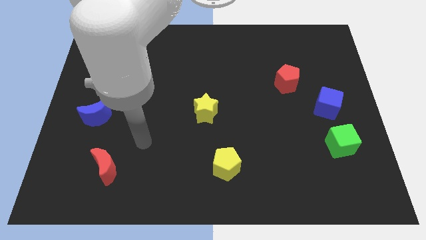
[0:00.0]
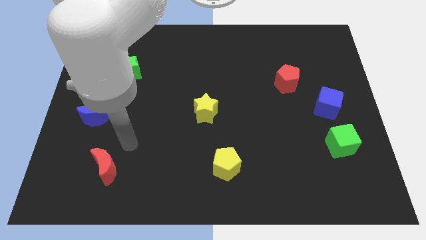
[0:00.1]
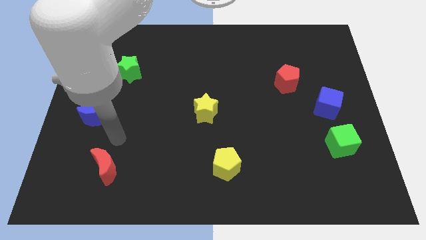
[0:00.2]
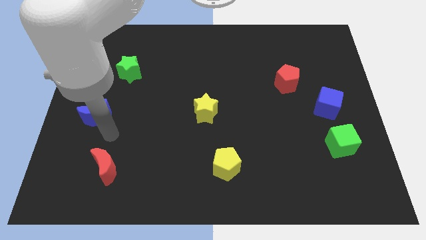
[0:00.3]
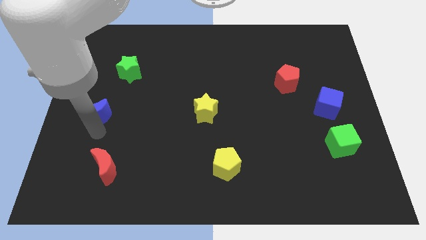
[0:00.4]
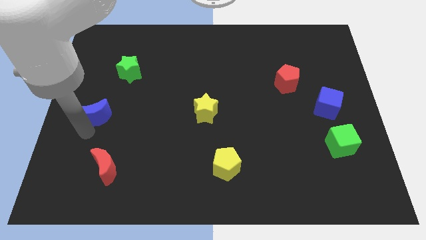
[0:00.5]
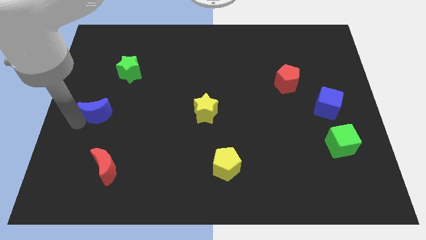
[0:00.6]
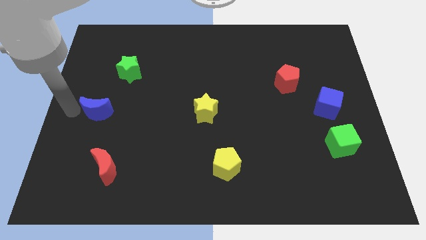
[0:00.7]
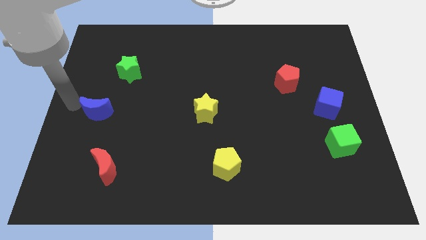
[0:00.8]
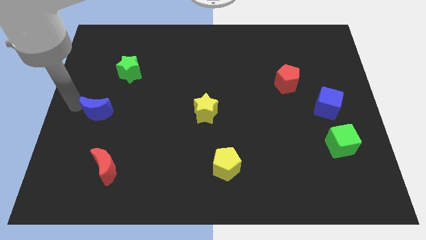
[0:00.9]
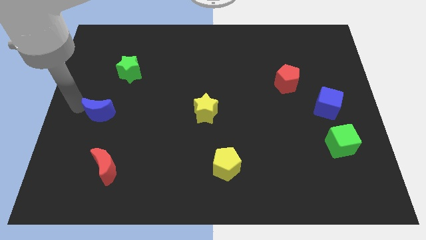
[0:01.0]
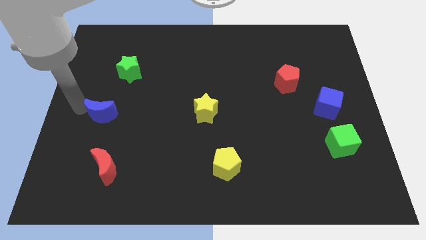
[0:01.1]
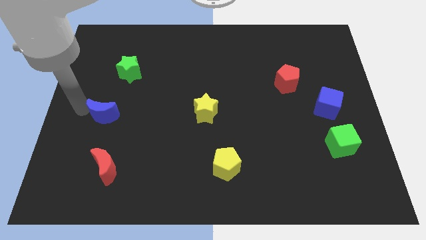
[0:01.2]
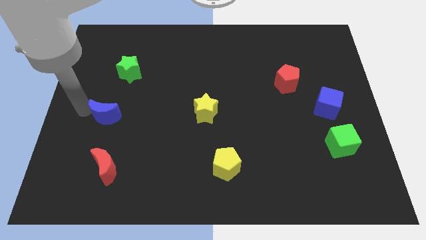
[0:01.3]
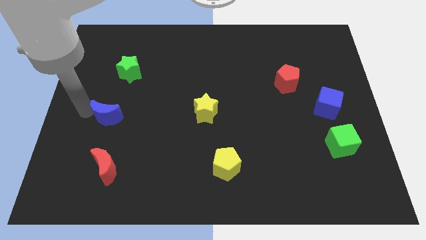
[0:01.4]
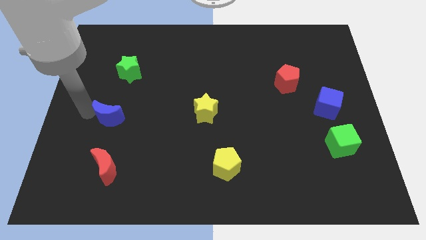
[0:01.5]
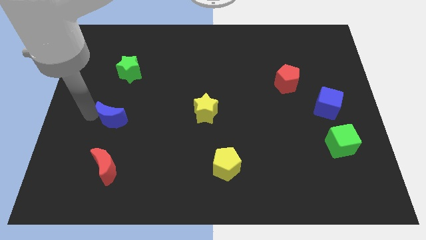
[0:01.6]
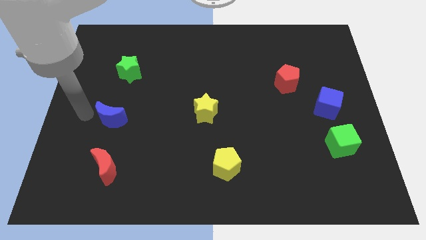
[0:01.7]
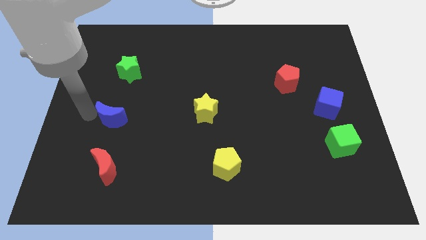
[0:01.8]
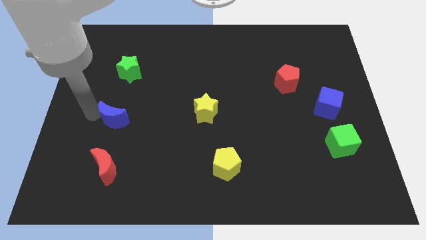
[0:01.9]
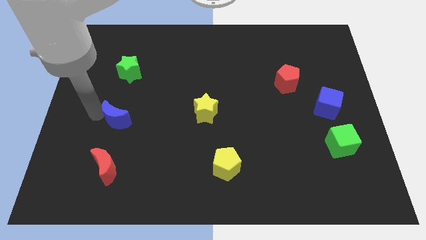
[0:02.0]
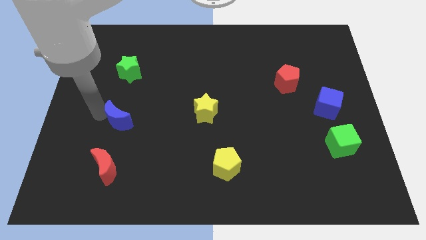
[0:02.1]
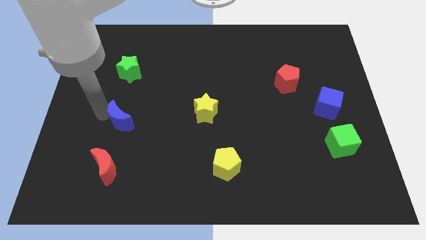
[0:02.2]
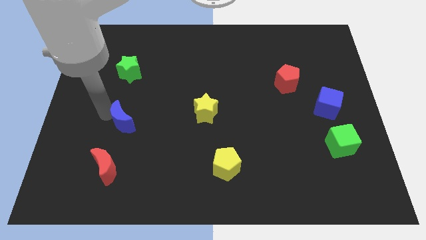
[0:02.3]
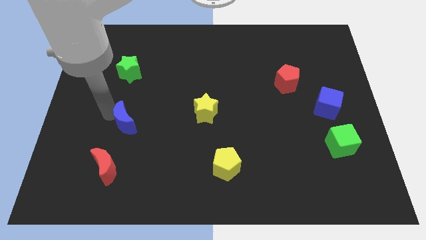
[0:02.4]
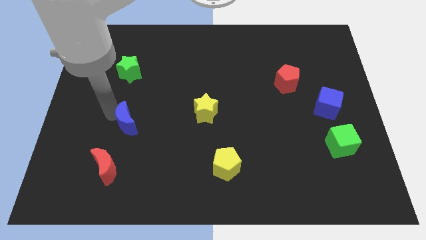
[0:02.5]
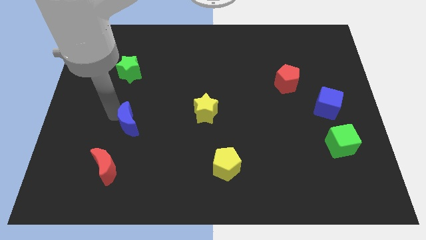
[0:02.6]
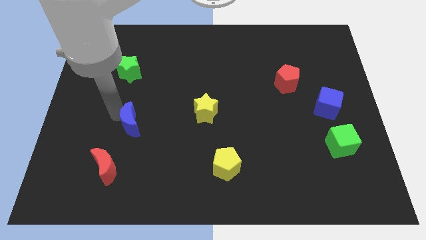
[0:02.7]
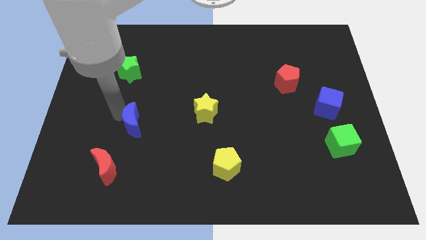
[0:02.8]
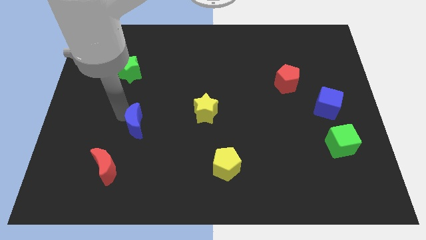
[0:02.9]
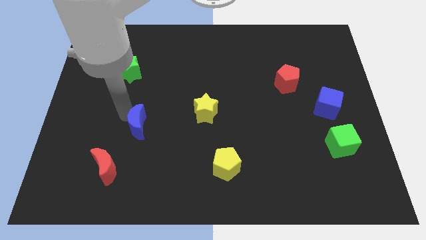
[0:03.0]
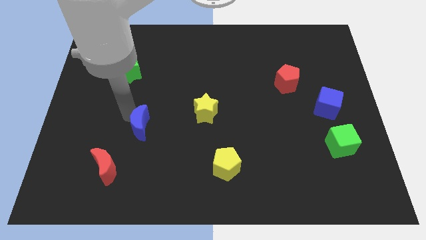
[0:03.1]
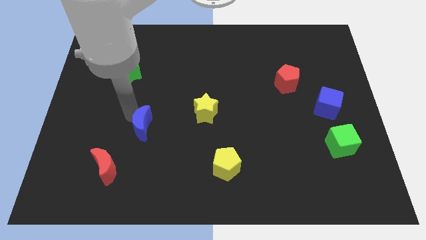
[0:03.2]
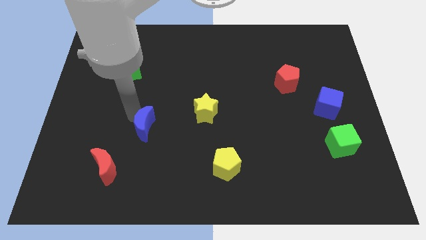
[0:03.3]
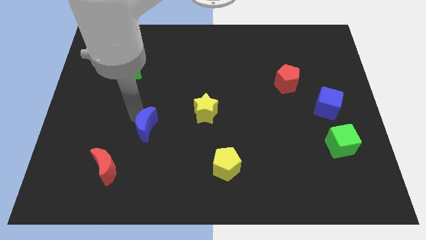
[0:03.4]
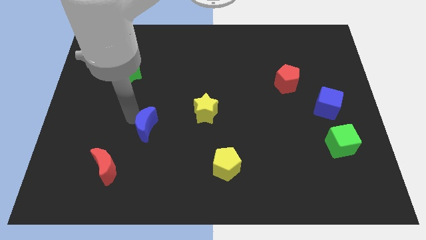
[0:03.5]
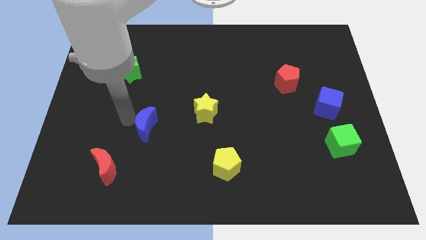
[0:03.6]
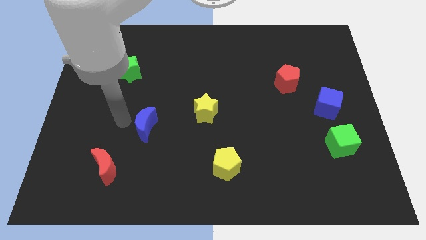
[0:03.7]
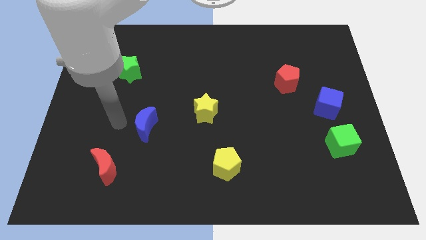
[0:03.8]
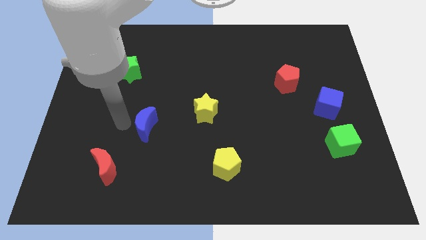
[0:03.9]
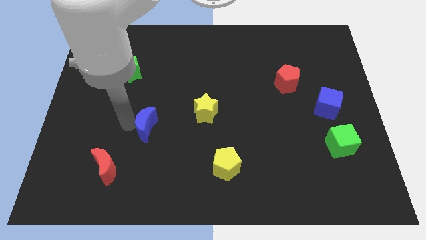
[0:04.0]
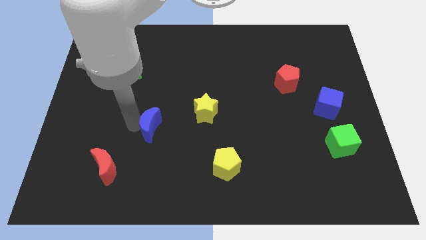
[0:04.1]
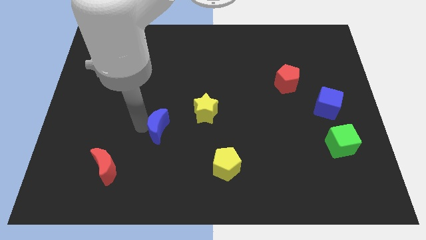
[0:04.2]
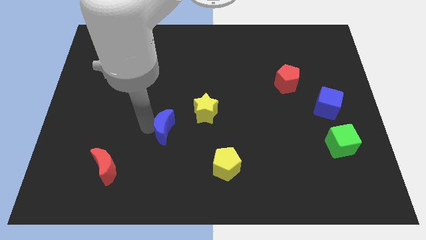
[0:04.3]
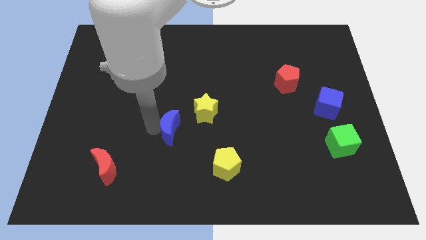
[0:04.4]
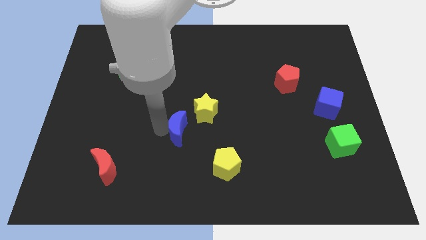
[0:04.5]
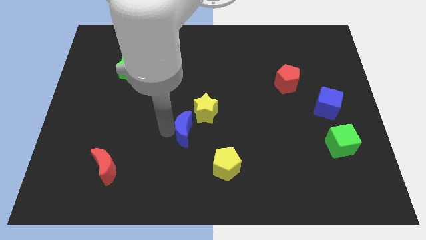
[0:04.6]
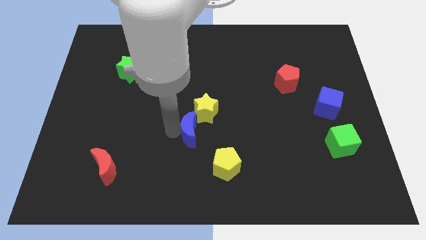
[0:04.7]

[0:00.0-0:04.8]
push the blue moon to the right

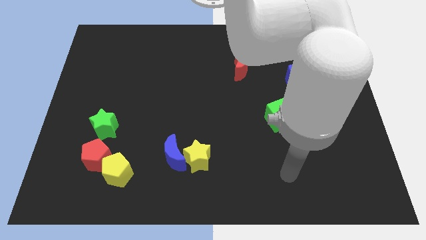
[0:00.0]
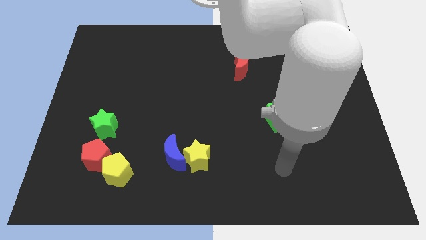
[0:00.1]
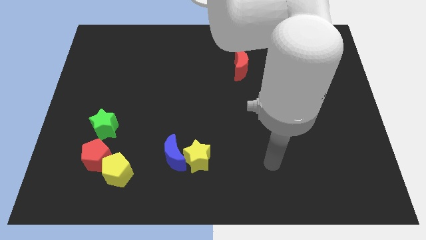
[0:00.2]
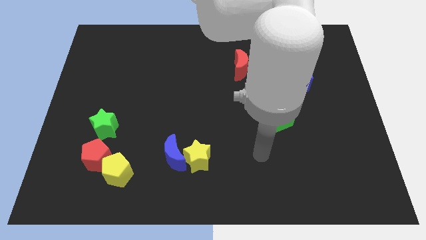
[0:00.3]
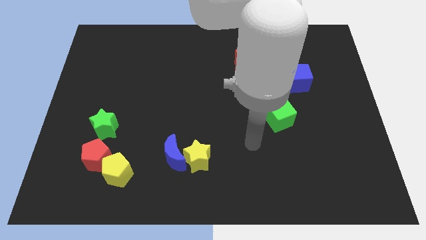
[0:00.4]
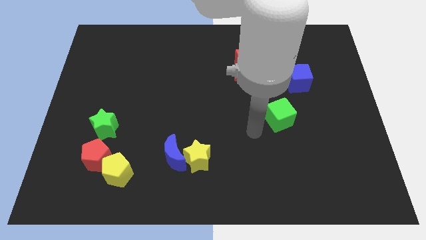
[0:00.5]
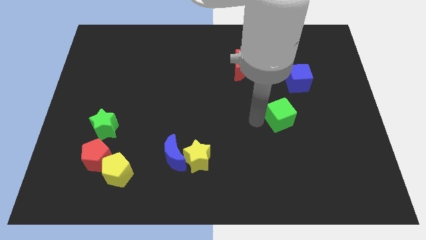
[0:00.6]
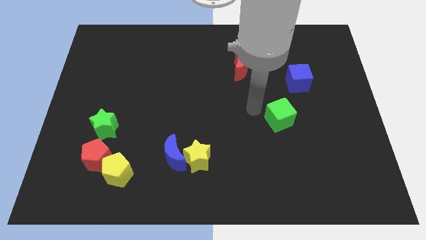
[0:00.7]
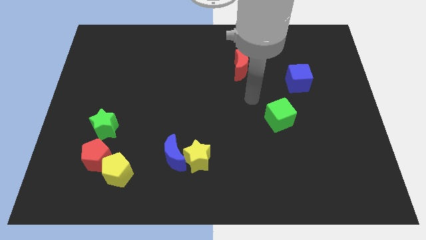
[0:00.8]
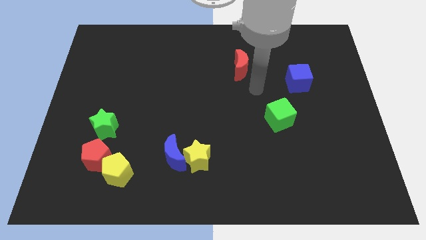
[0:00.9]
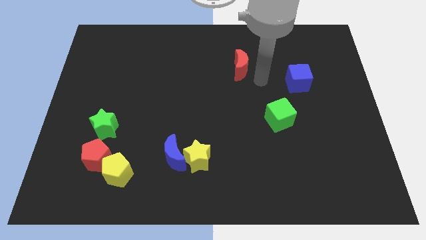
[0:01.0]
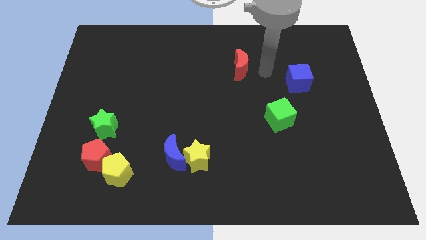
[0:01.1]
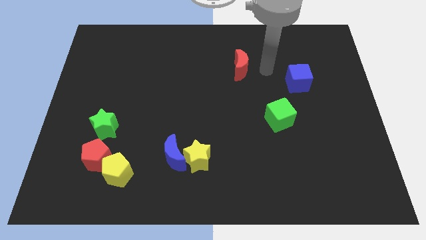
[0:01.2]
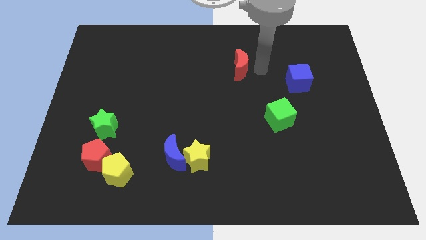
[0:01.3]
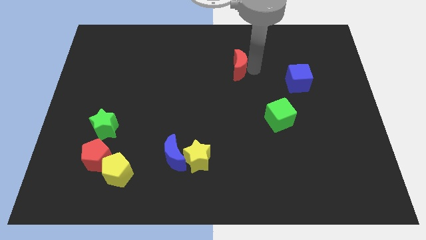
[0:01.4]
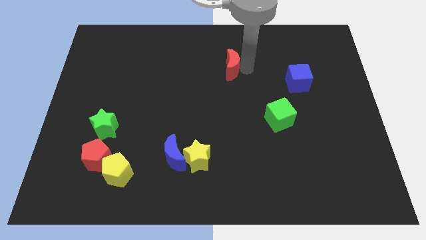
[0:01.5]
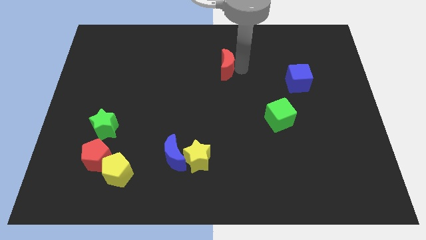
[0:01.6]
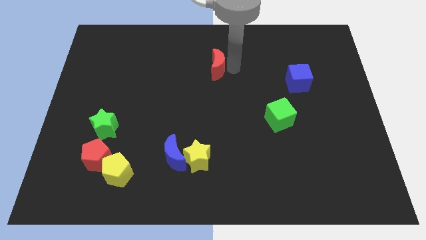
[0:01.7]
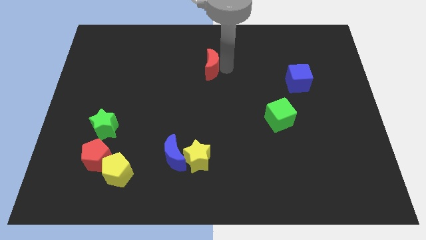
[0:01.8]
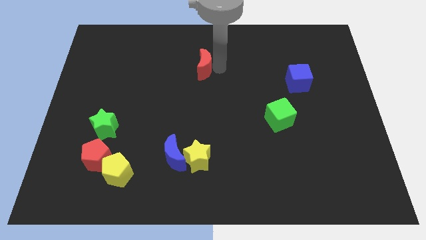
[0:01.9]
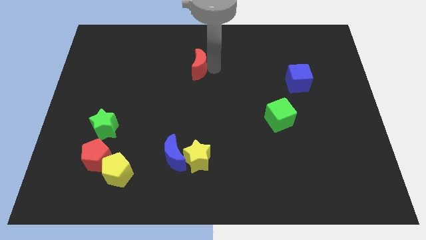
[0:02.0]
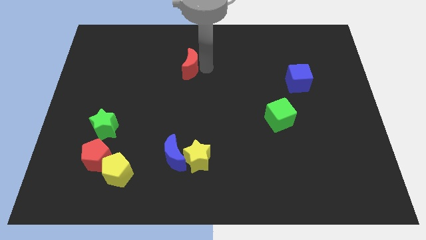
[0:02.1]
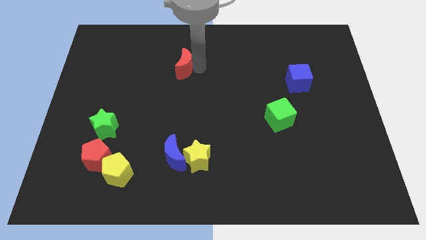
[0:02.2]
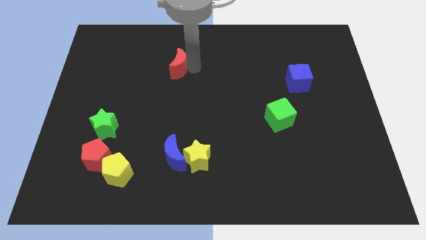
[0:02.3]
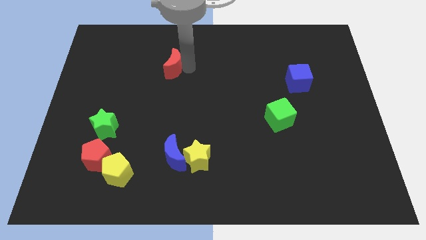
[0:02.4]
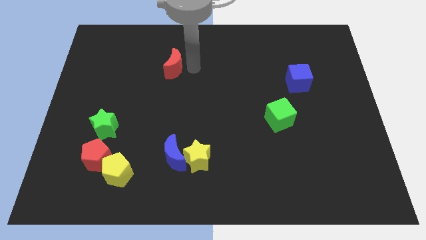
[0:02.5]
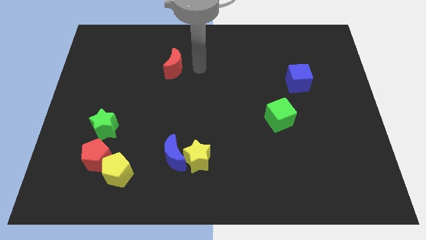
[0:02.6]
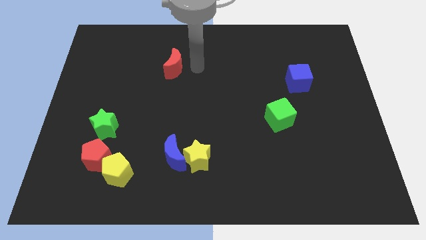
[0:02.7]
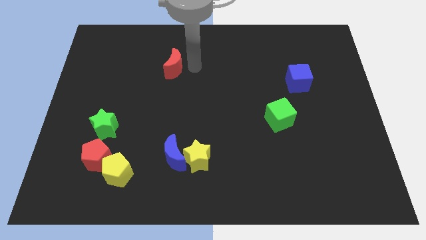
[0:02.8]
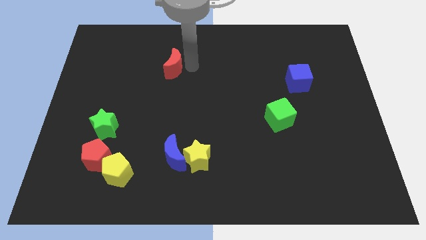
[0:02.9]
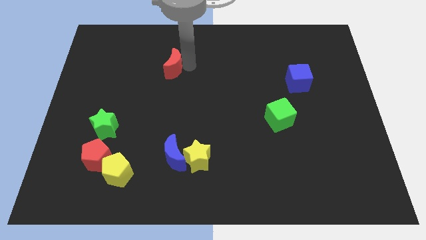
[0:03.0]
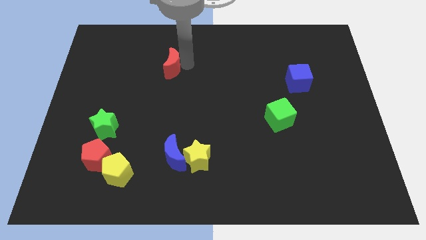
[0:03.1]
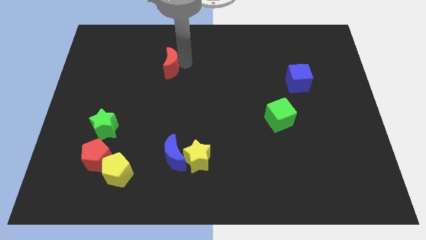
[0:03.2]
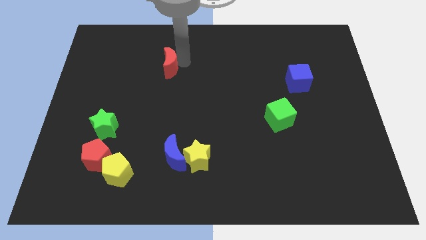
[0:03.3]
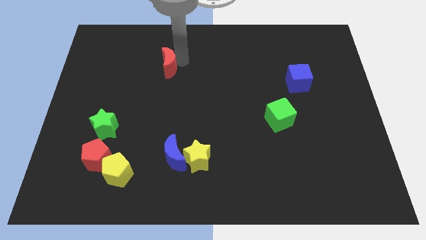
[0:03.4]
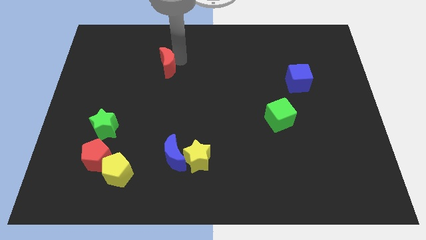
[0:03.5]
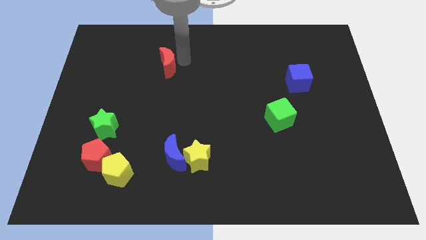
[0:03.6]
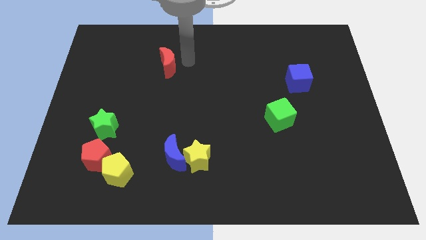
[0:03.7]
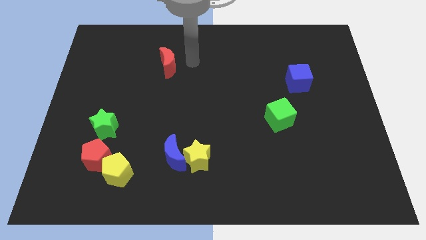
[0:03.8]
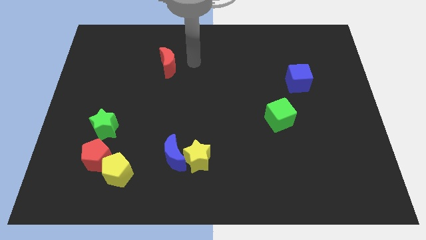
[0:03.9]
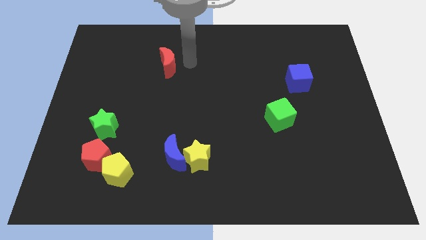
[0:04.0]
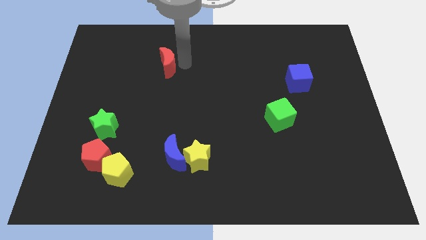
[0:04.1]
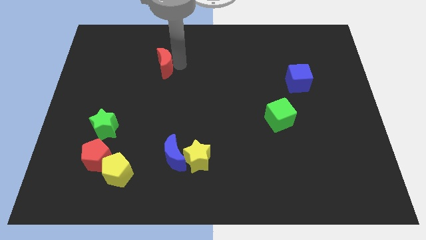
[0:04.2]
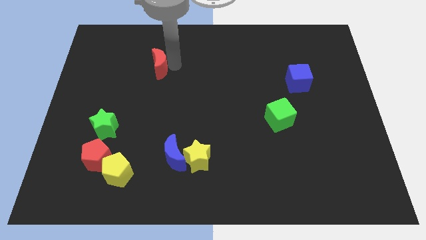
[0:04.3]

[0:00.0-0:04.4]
push the red moon left
